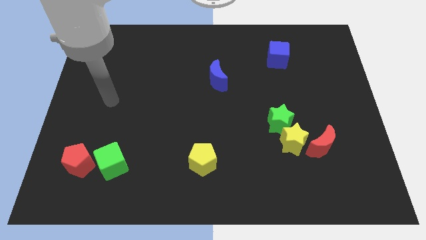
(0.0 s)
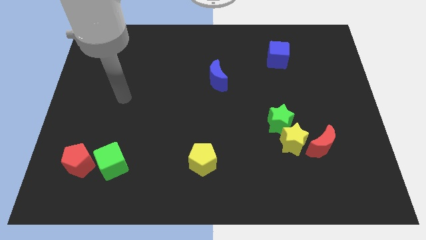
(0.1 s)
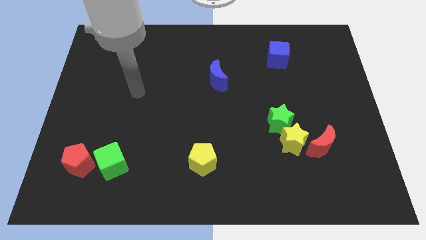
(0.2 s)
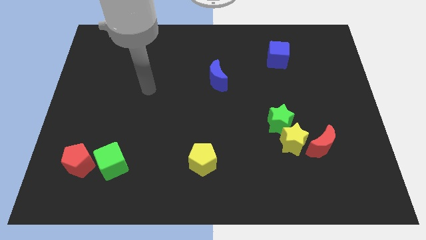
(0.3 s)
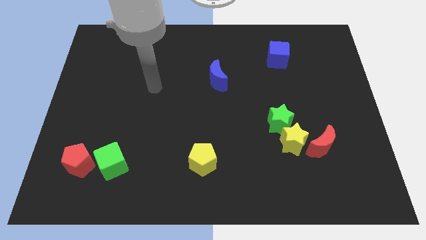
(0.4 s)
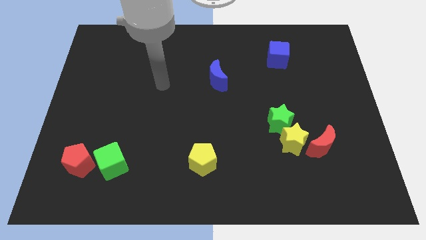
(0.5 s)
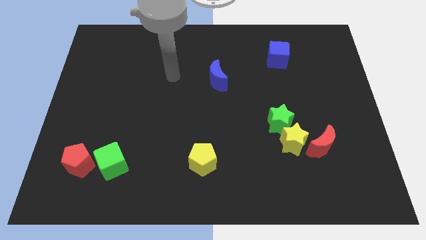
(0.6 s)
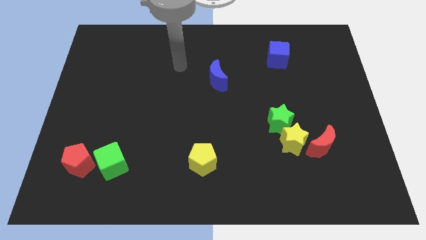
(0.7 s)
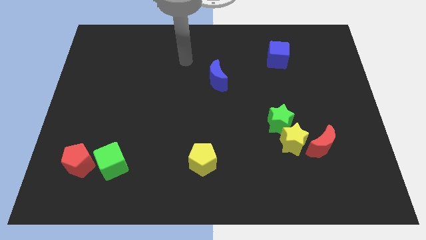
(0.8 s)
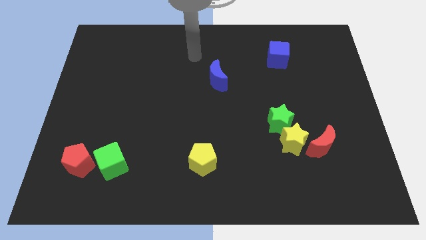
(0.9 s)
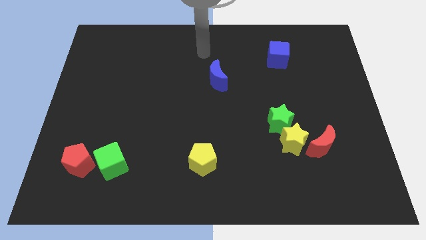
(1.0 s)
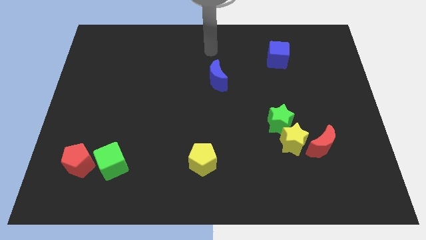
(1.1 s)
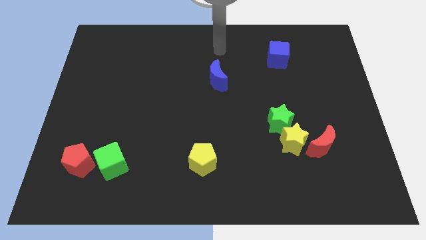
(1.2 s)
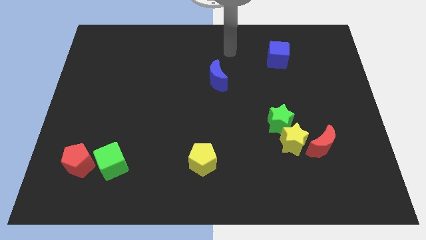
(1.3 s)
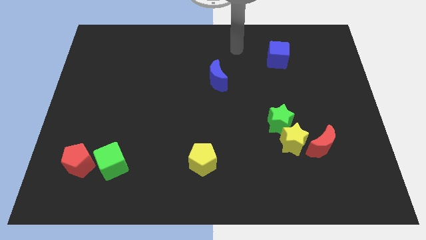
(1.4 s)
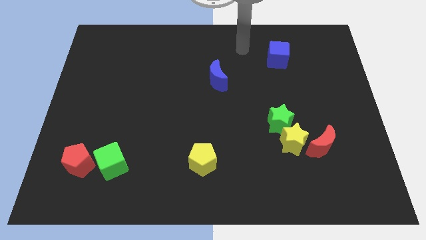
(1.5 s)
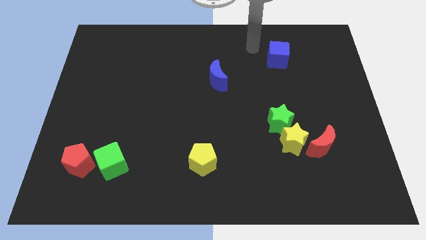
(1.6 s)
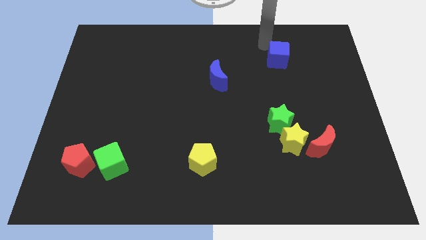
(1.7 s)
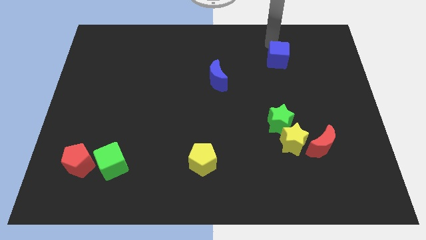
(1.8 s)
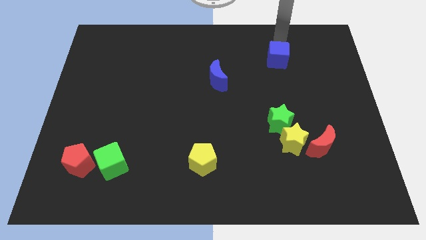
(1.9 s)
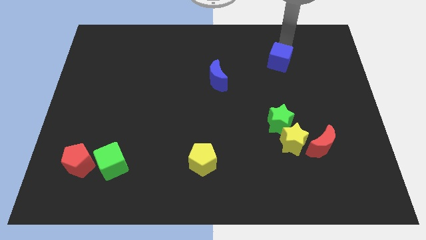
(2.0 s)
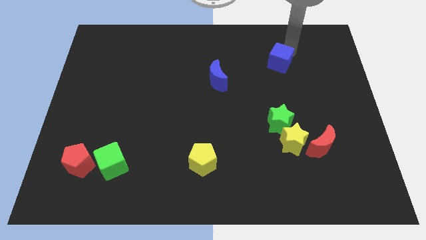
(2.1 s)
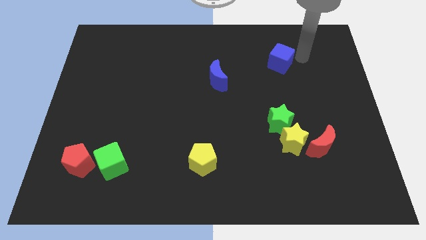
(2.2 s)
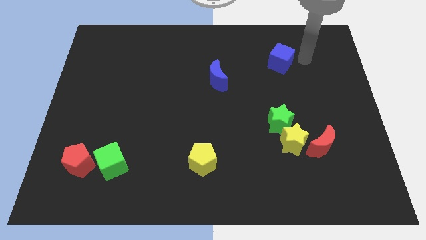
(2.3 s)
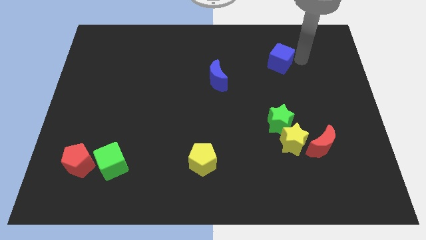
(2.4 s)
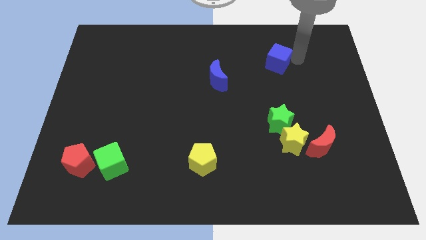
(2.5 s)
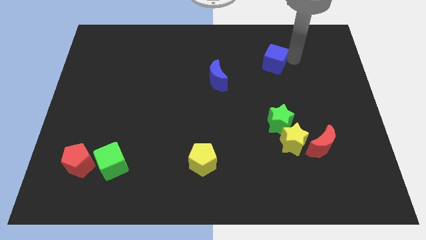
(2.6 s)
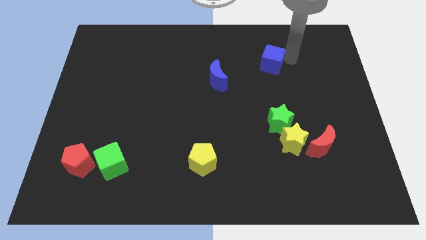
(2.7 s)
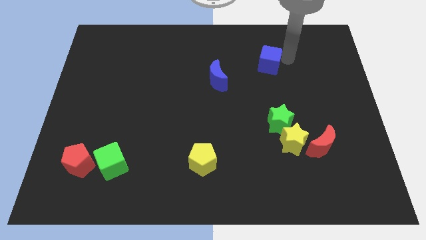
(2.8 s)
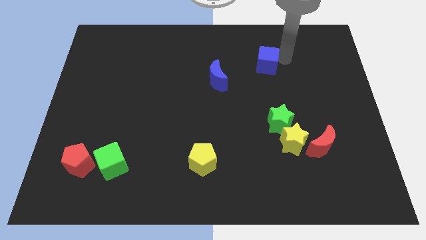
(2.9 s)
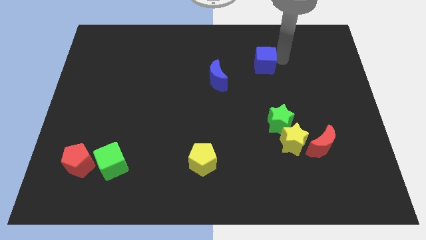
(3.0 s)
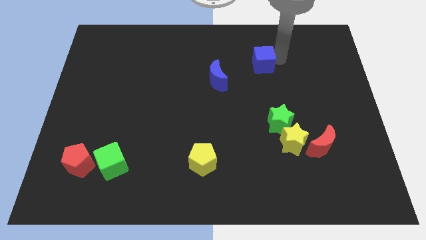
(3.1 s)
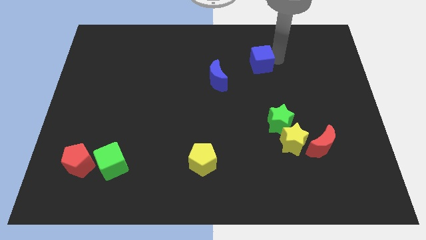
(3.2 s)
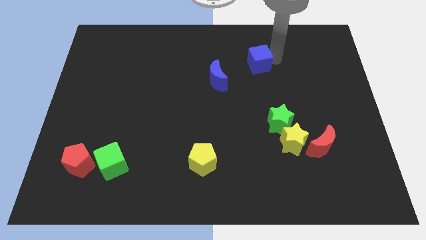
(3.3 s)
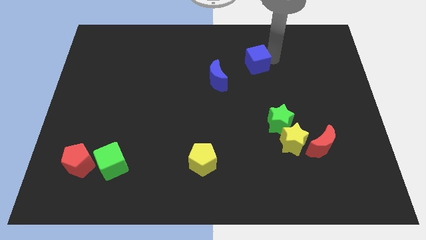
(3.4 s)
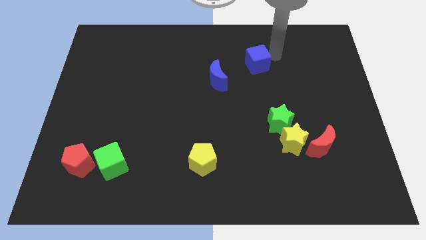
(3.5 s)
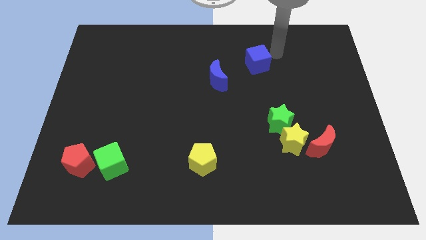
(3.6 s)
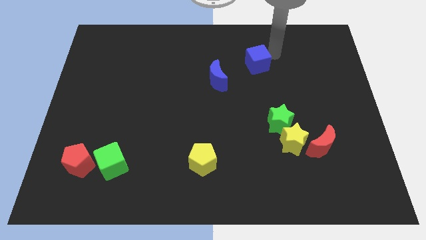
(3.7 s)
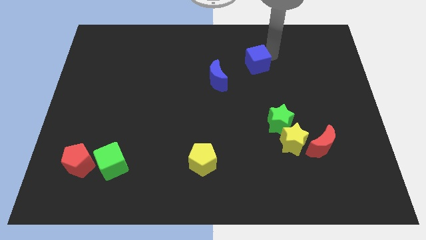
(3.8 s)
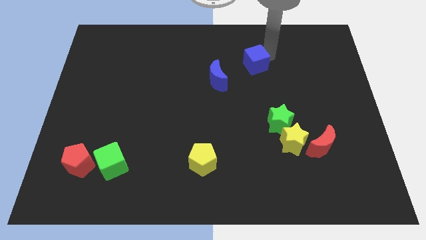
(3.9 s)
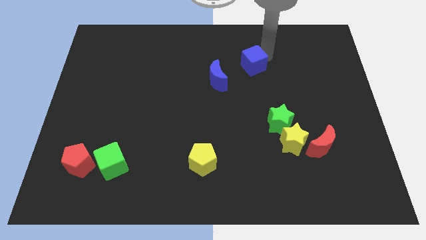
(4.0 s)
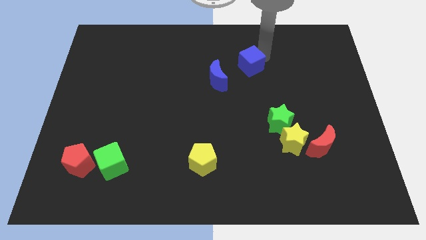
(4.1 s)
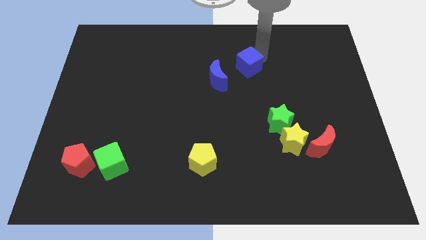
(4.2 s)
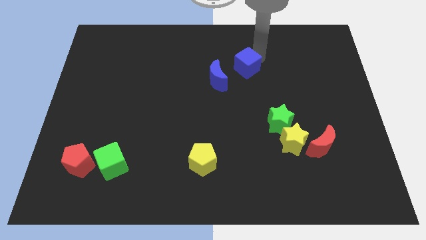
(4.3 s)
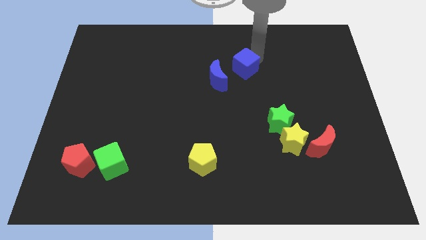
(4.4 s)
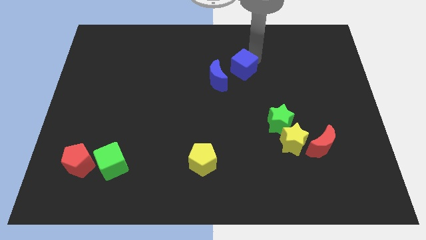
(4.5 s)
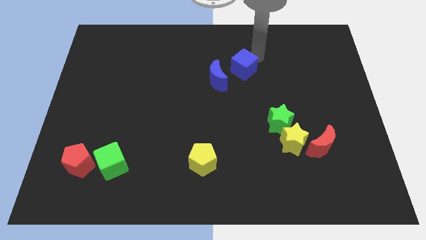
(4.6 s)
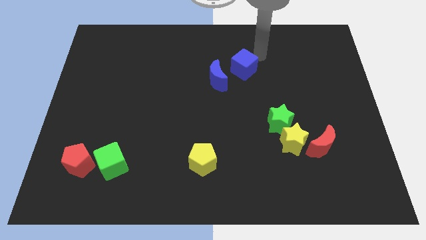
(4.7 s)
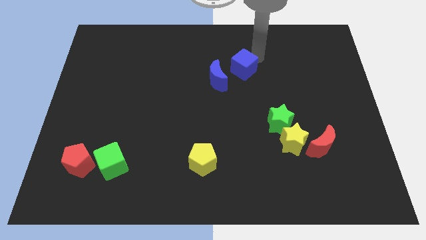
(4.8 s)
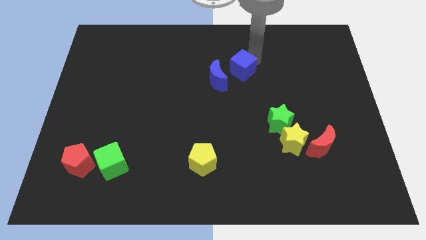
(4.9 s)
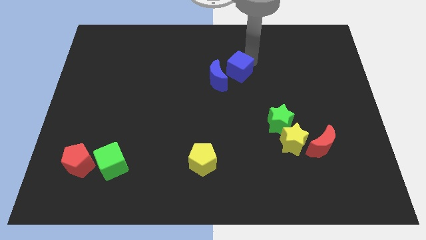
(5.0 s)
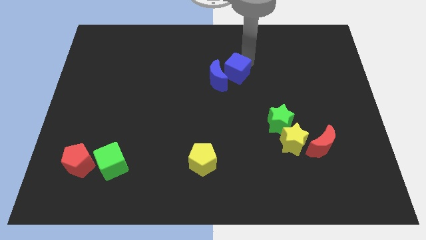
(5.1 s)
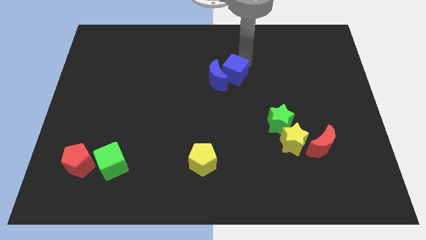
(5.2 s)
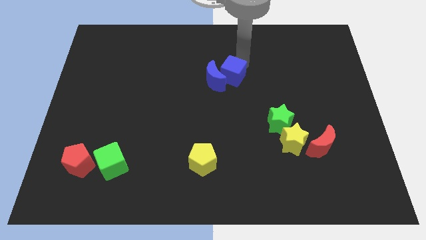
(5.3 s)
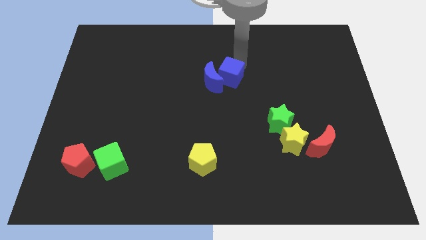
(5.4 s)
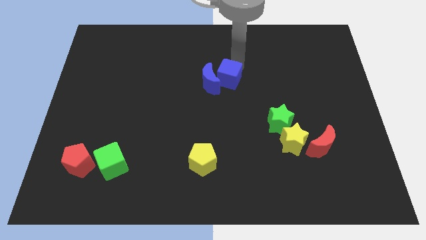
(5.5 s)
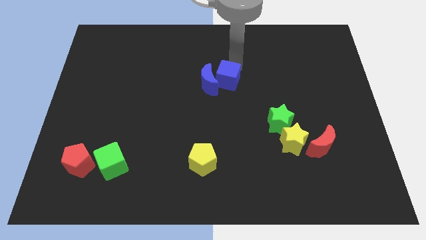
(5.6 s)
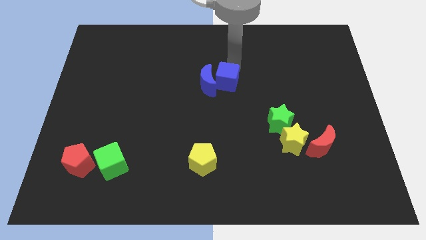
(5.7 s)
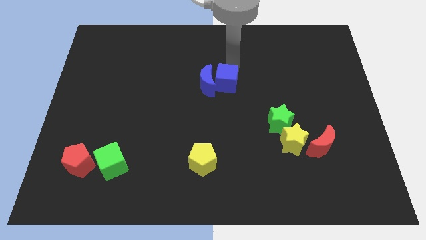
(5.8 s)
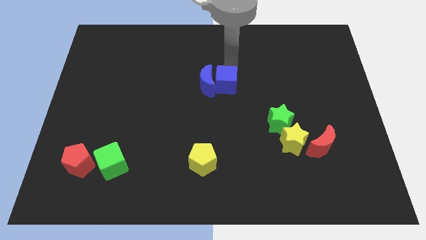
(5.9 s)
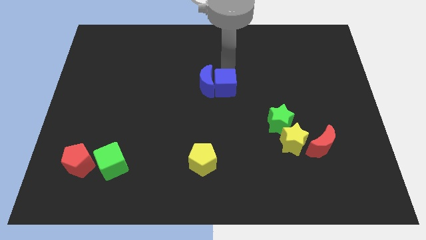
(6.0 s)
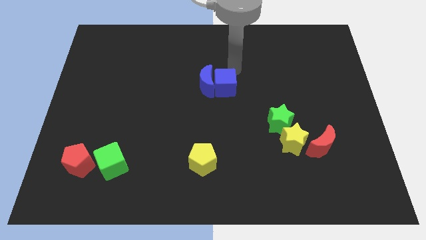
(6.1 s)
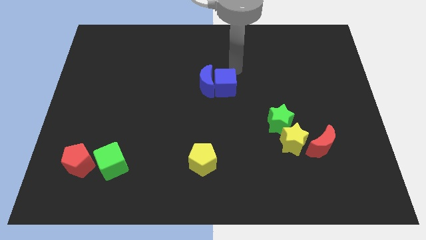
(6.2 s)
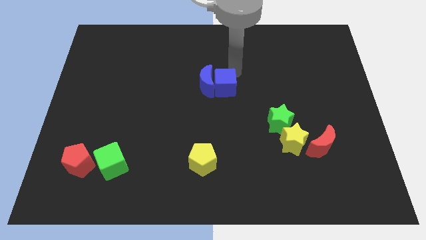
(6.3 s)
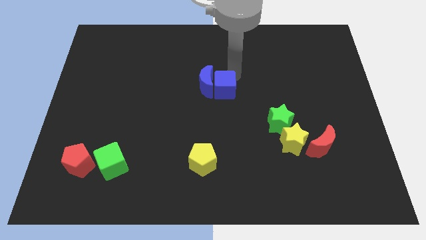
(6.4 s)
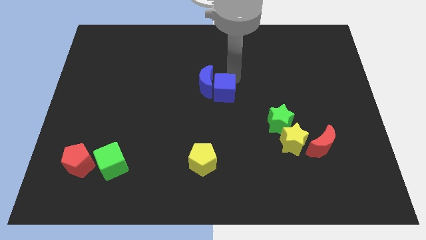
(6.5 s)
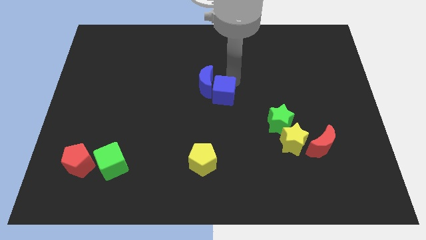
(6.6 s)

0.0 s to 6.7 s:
slide the blue cube below the blue moon

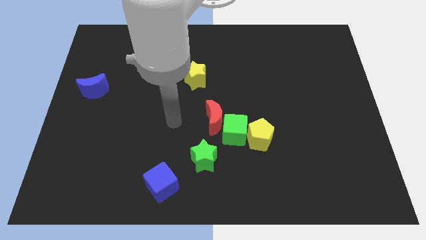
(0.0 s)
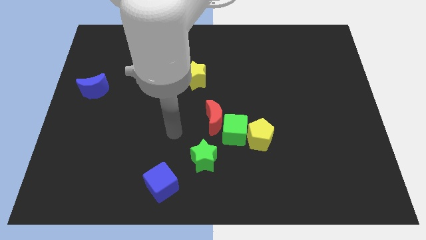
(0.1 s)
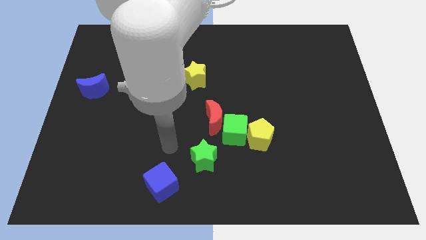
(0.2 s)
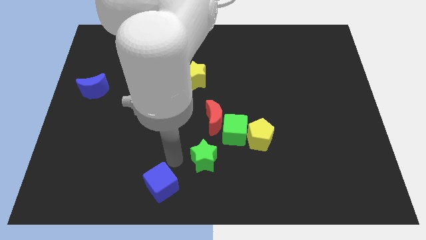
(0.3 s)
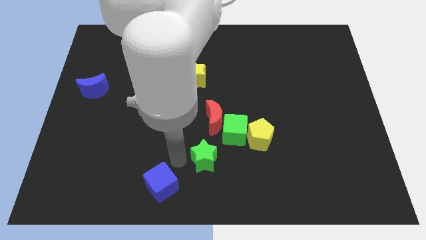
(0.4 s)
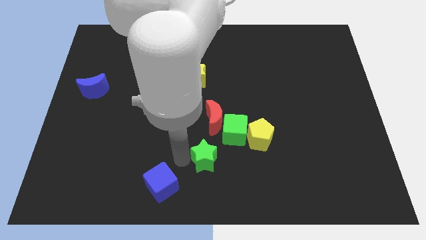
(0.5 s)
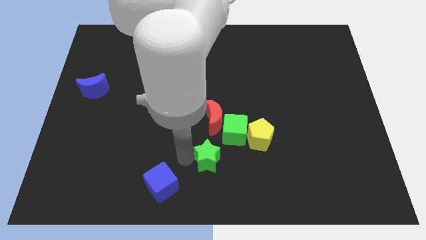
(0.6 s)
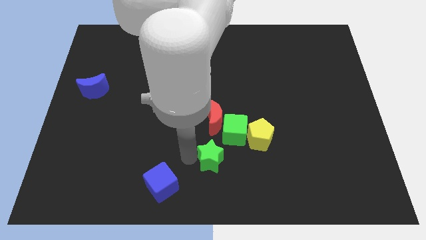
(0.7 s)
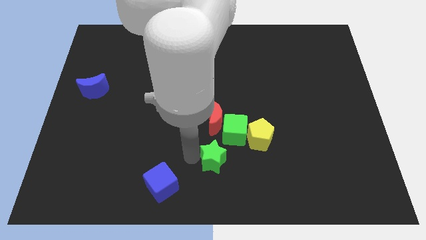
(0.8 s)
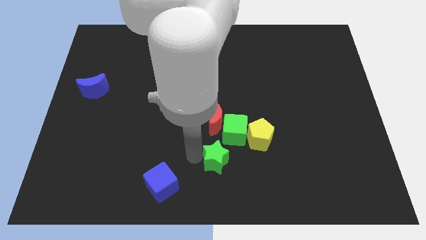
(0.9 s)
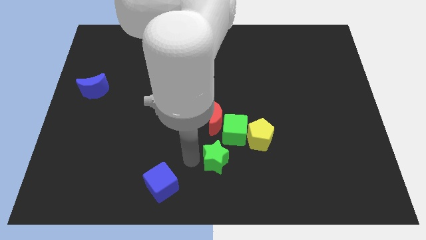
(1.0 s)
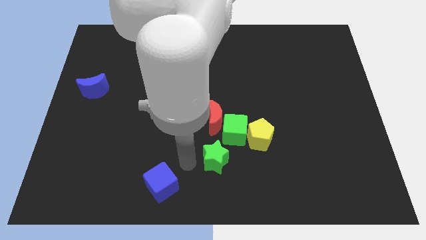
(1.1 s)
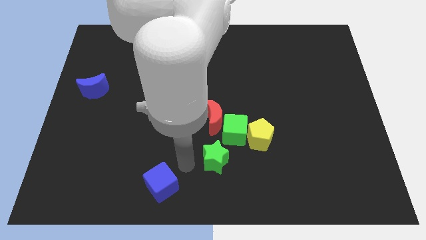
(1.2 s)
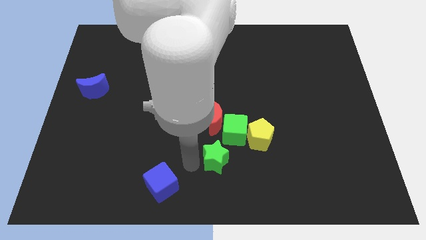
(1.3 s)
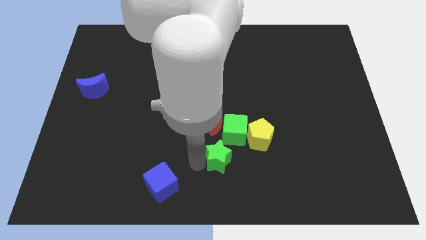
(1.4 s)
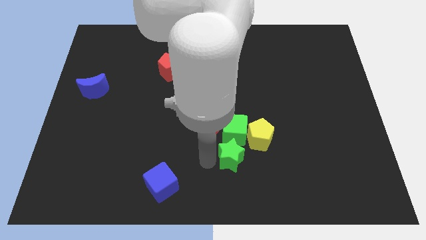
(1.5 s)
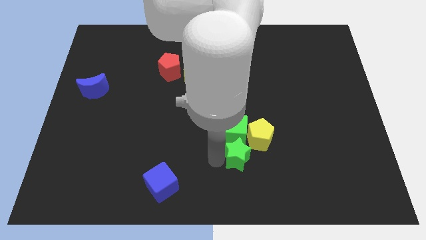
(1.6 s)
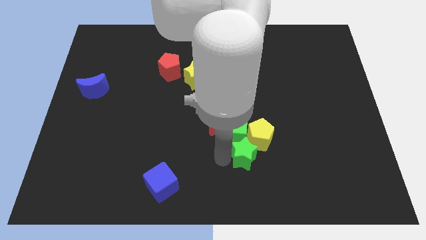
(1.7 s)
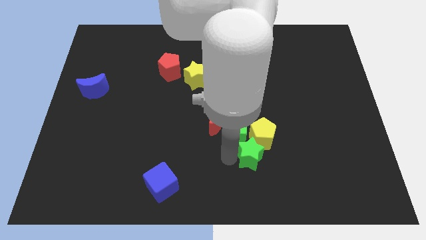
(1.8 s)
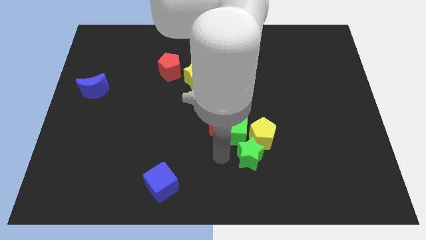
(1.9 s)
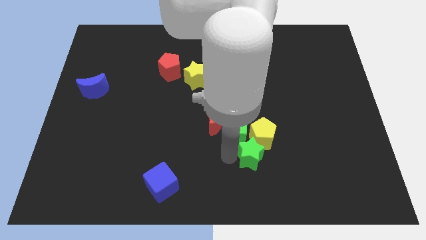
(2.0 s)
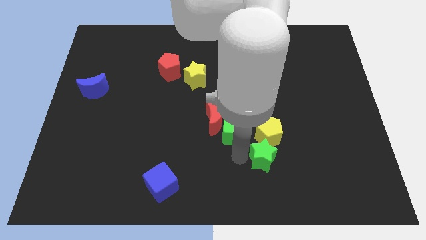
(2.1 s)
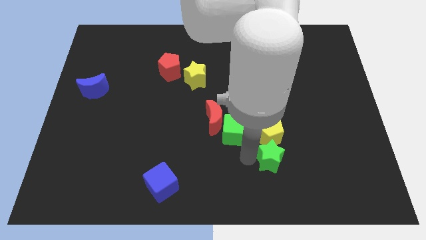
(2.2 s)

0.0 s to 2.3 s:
move the green star diagonally down and to the right of the yellow pentagon
